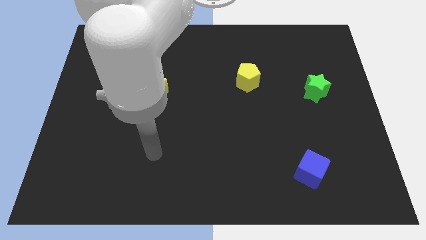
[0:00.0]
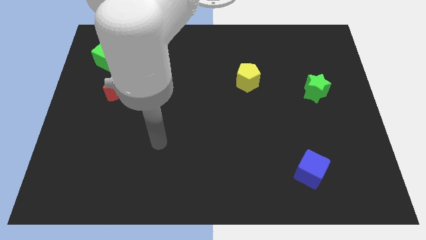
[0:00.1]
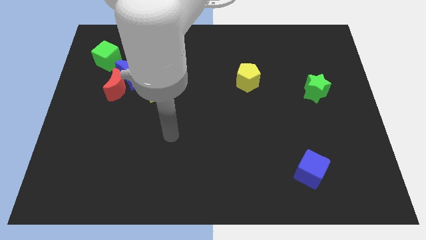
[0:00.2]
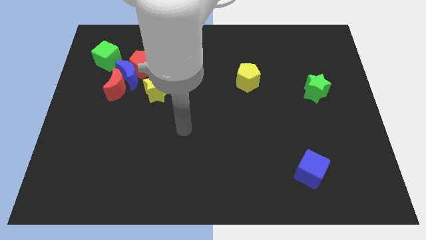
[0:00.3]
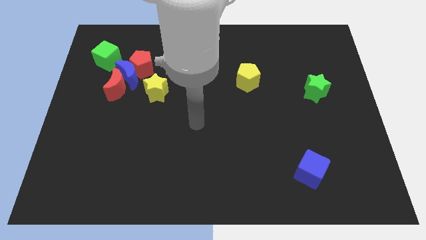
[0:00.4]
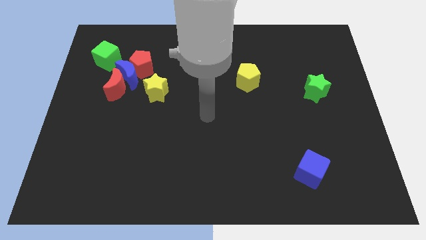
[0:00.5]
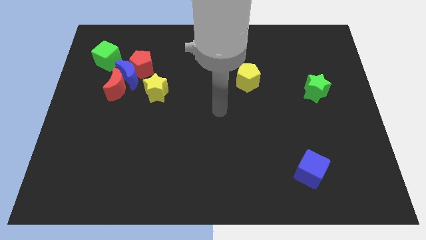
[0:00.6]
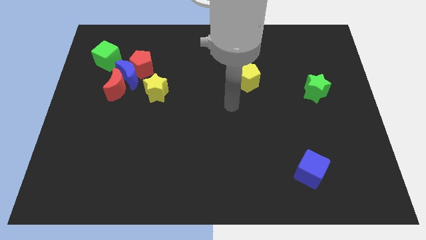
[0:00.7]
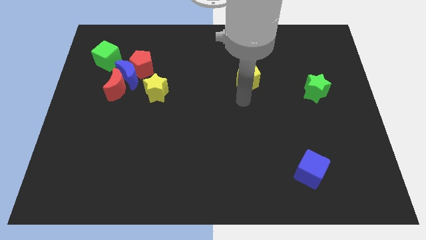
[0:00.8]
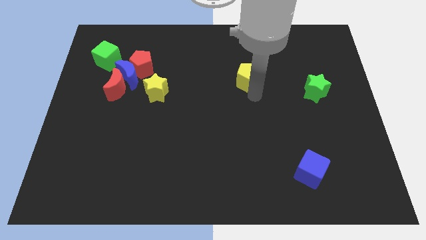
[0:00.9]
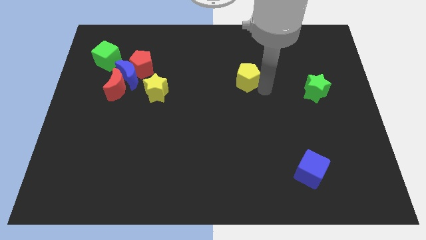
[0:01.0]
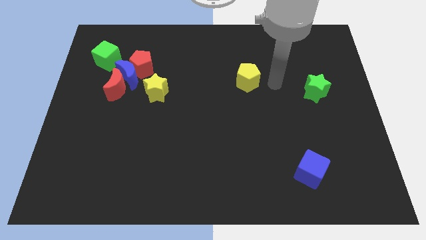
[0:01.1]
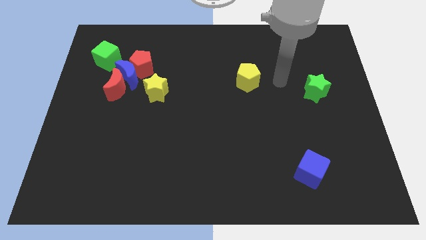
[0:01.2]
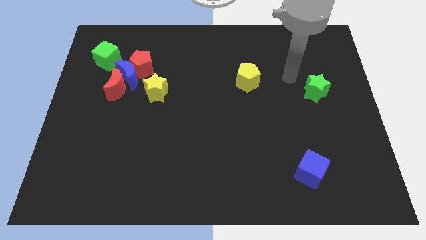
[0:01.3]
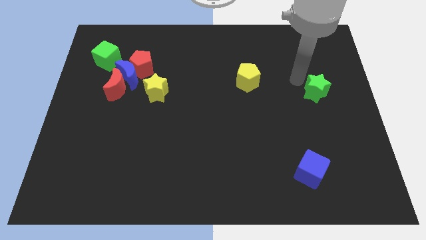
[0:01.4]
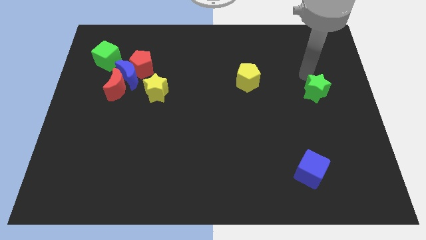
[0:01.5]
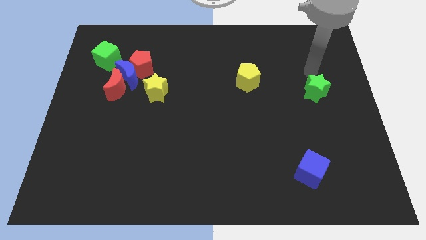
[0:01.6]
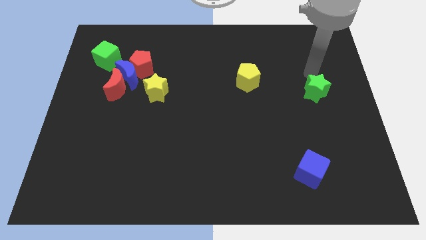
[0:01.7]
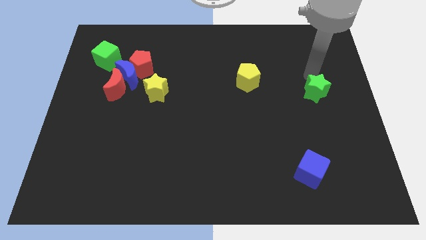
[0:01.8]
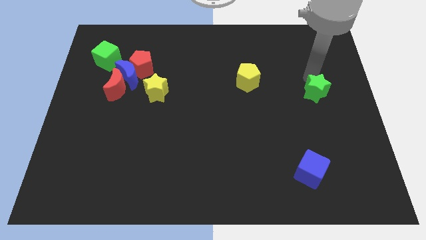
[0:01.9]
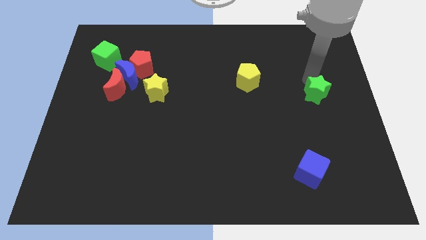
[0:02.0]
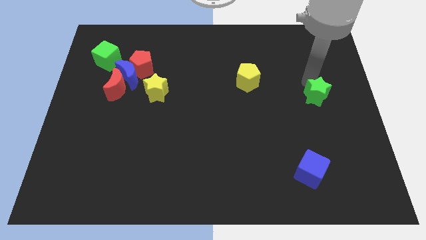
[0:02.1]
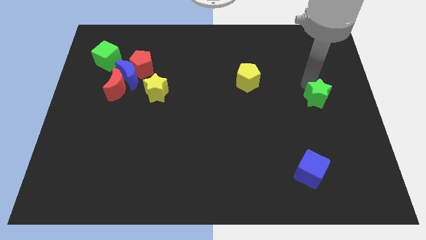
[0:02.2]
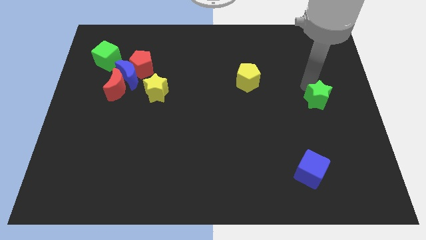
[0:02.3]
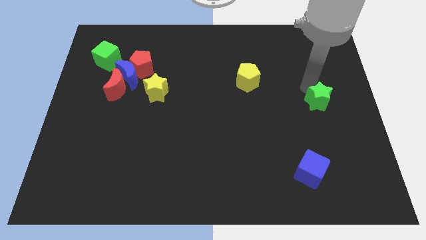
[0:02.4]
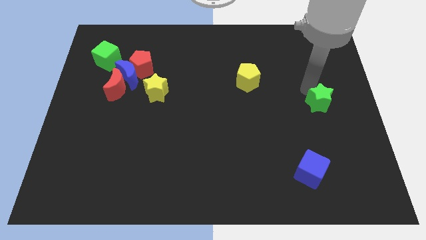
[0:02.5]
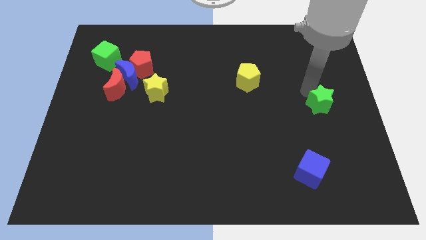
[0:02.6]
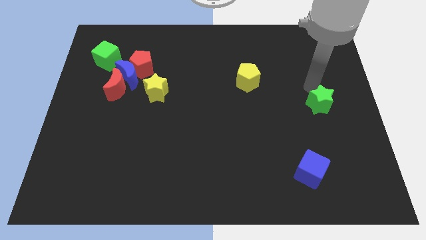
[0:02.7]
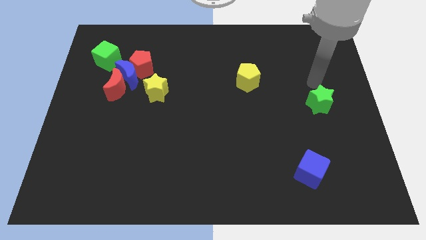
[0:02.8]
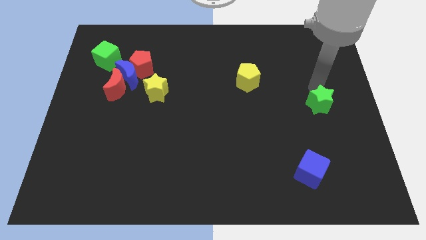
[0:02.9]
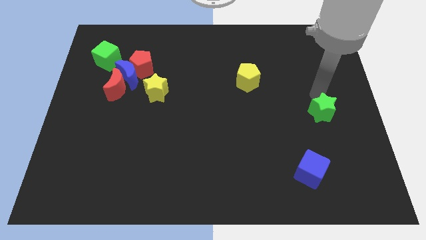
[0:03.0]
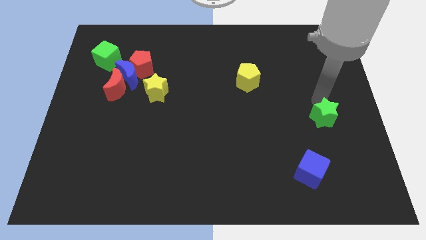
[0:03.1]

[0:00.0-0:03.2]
push the green star down a little

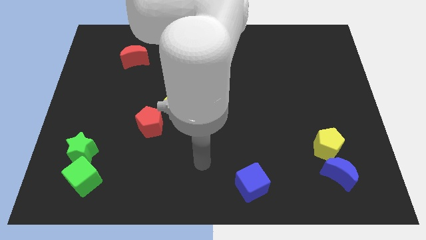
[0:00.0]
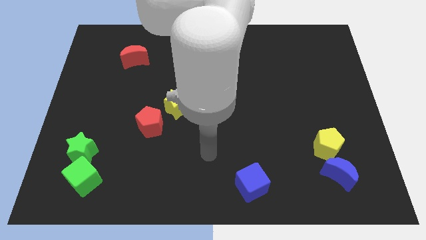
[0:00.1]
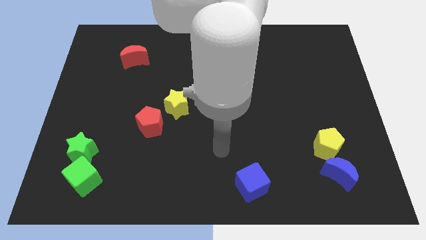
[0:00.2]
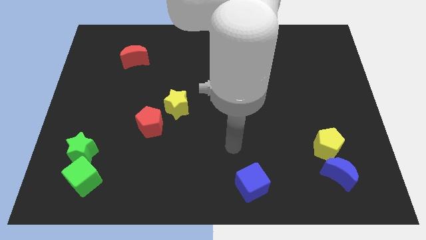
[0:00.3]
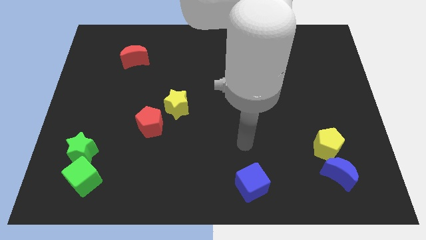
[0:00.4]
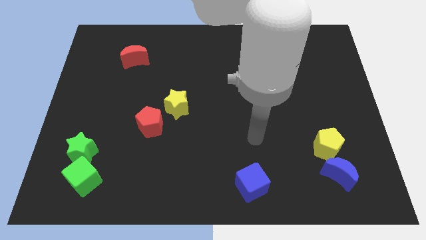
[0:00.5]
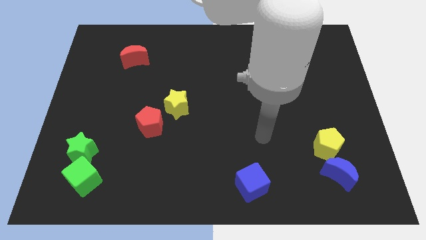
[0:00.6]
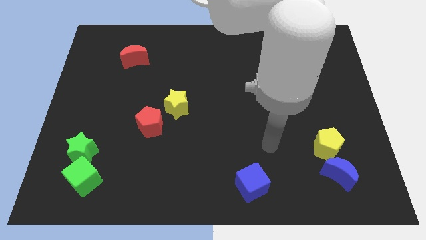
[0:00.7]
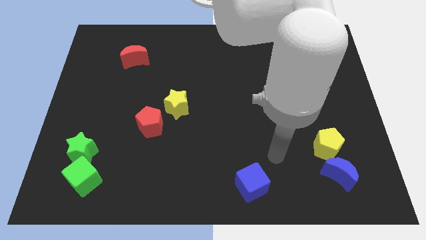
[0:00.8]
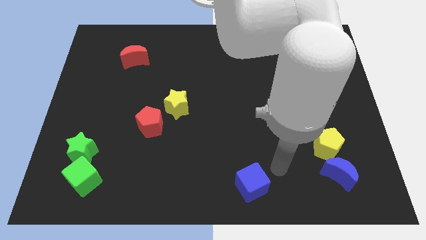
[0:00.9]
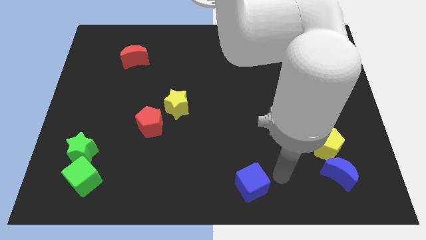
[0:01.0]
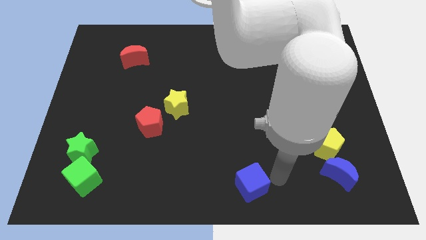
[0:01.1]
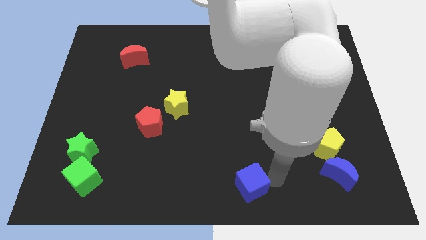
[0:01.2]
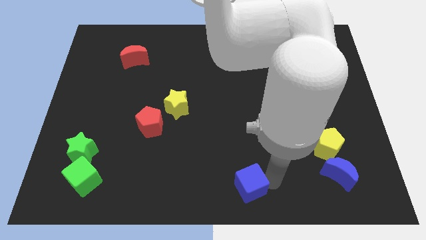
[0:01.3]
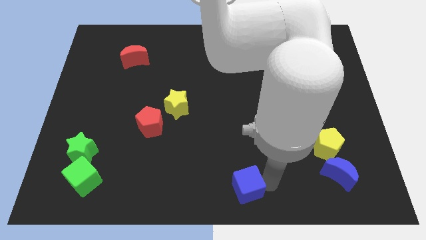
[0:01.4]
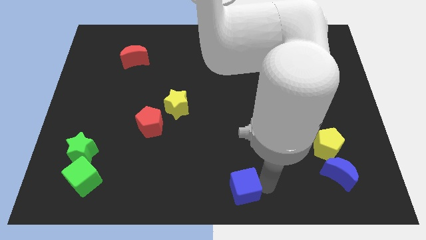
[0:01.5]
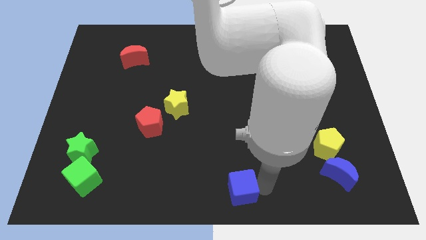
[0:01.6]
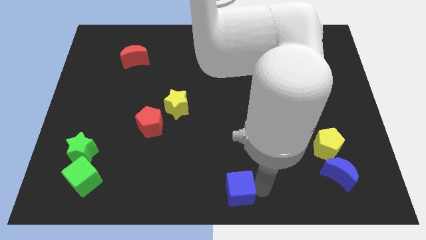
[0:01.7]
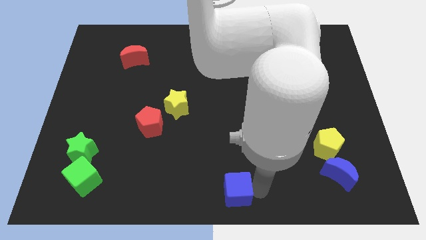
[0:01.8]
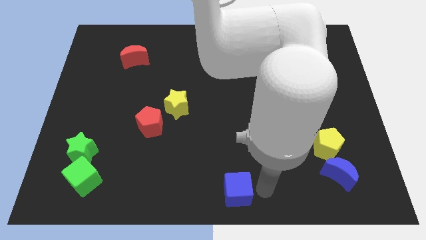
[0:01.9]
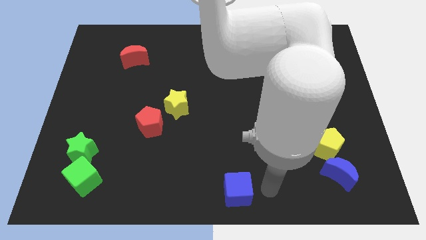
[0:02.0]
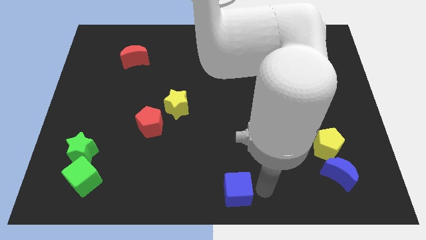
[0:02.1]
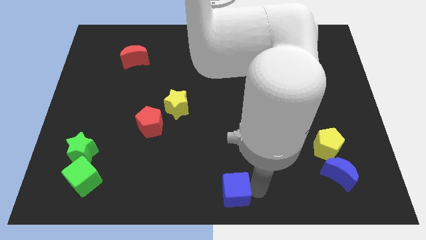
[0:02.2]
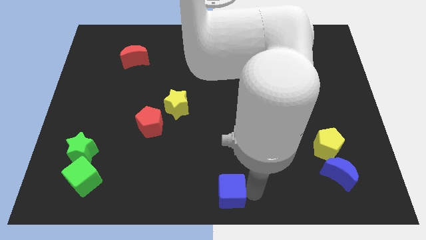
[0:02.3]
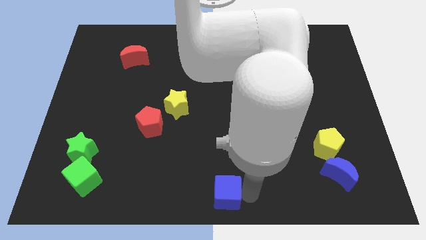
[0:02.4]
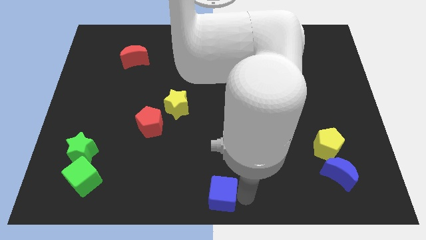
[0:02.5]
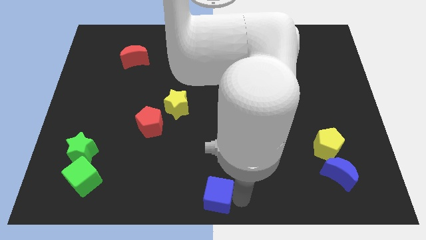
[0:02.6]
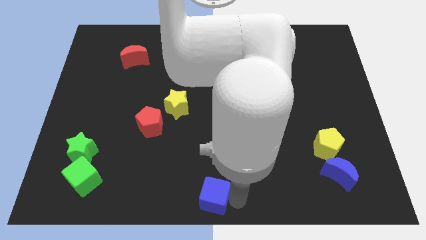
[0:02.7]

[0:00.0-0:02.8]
slide the blue cube somewhat to the left

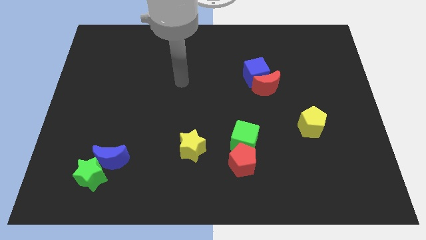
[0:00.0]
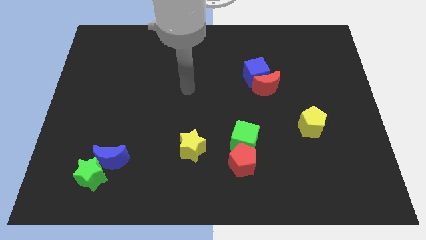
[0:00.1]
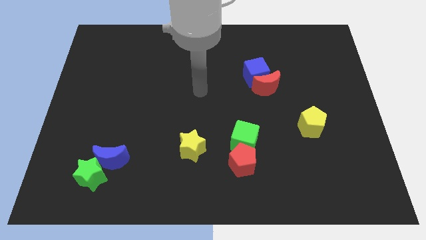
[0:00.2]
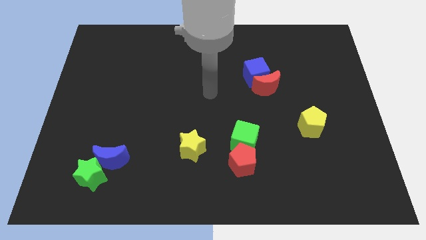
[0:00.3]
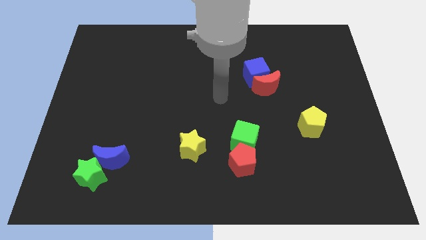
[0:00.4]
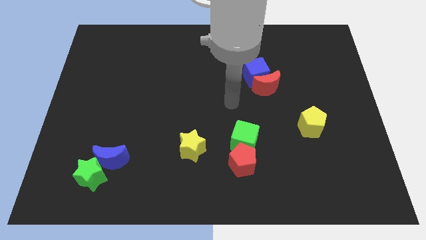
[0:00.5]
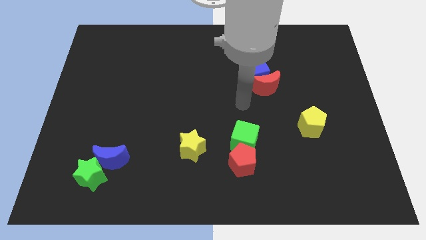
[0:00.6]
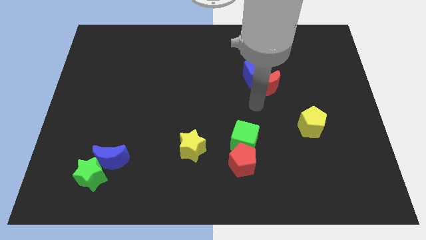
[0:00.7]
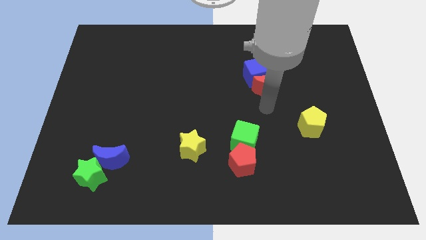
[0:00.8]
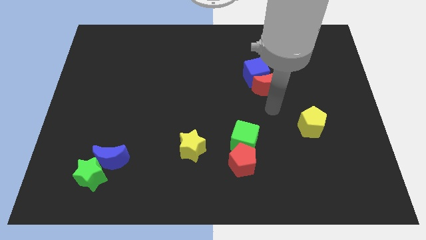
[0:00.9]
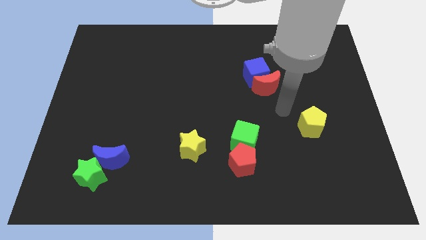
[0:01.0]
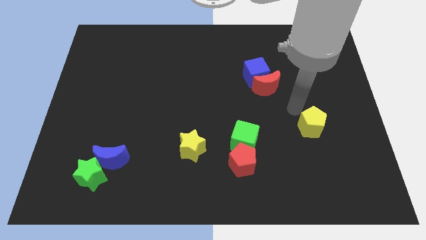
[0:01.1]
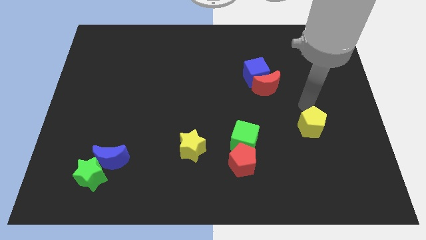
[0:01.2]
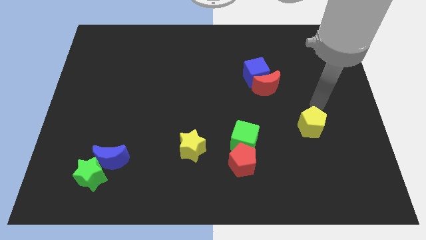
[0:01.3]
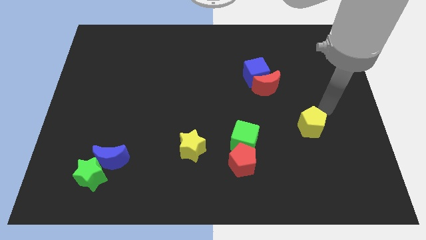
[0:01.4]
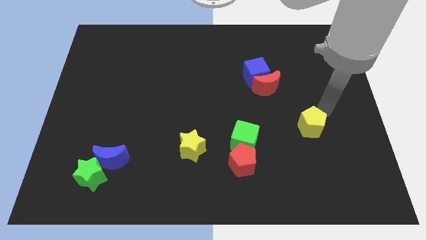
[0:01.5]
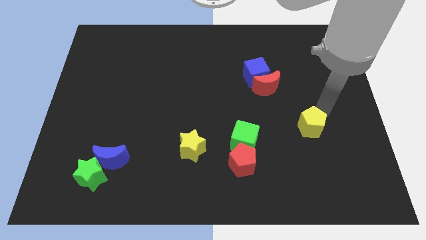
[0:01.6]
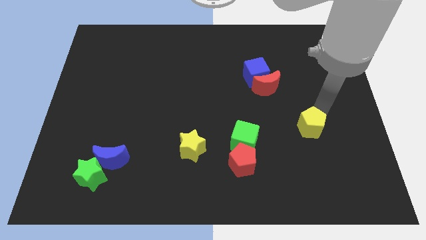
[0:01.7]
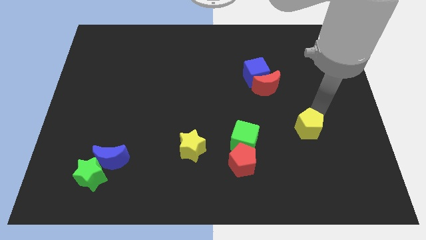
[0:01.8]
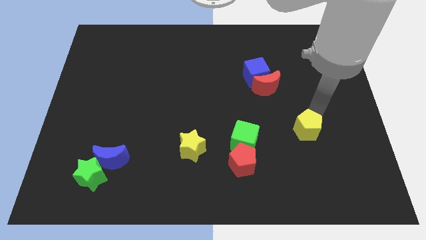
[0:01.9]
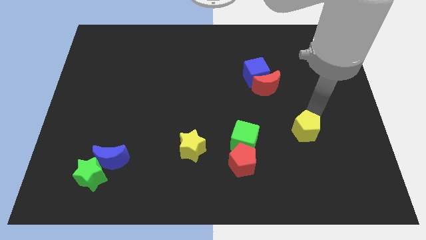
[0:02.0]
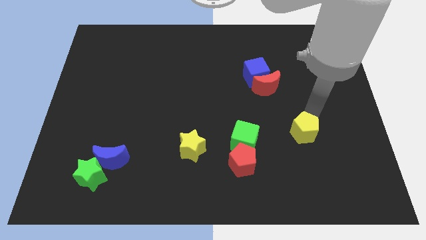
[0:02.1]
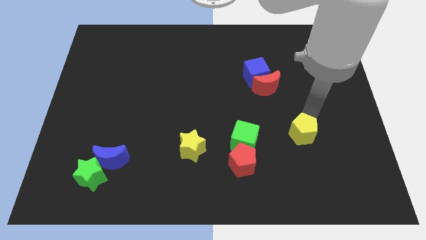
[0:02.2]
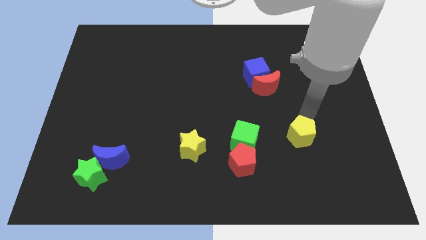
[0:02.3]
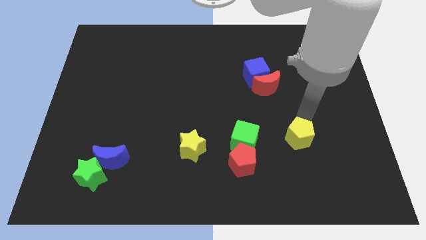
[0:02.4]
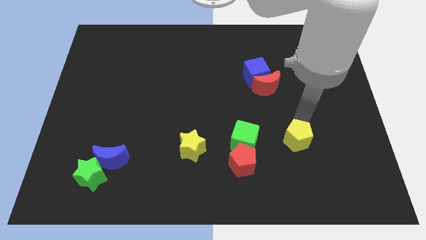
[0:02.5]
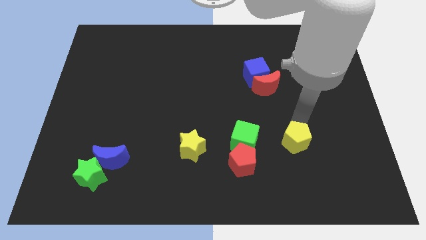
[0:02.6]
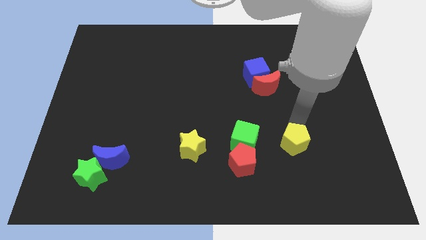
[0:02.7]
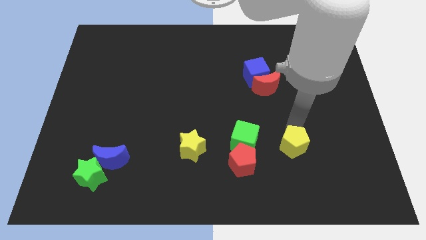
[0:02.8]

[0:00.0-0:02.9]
push the yellow pentagon downwards and left slightly
